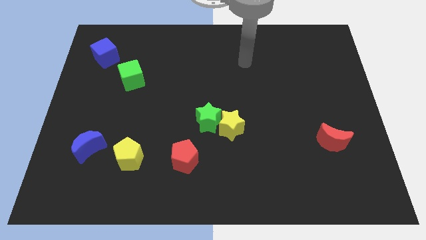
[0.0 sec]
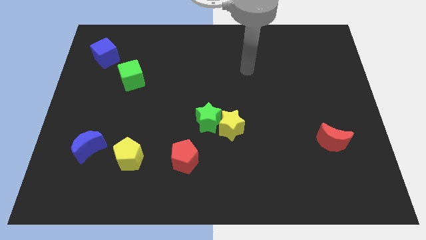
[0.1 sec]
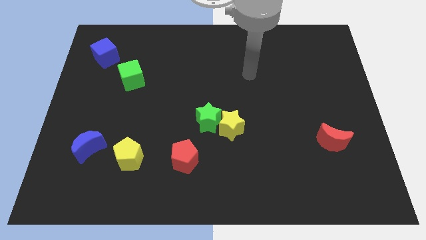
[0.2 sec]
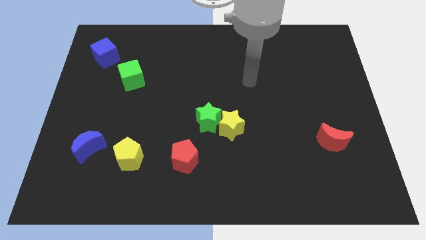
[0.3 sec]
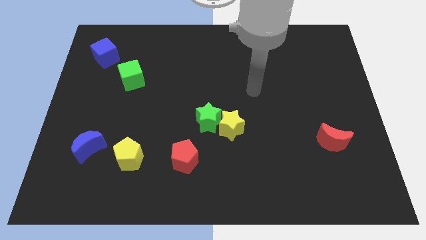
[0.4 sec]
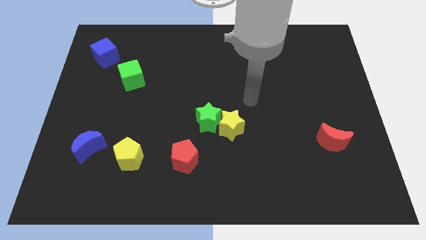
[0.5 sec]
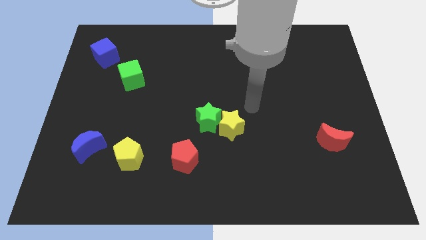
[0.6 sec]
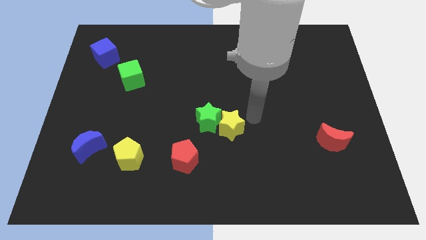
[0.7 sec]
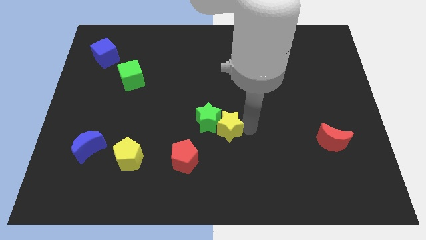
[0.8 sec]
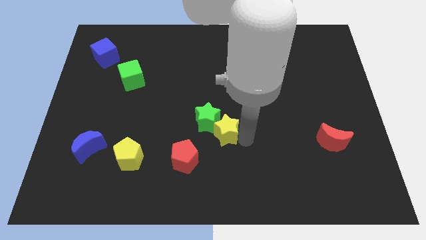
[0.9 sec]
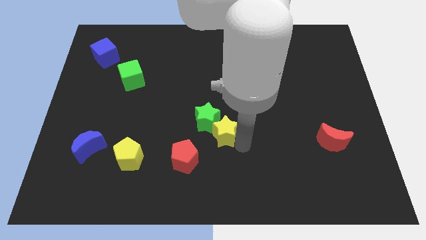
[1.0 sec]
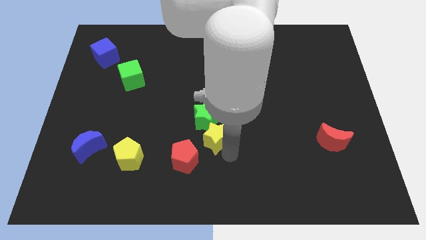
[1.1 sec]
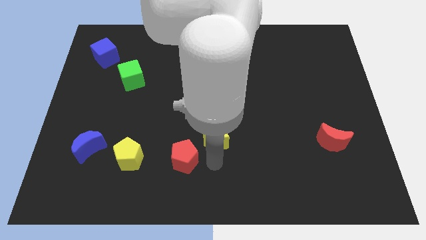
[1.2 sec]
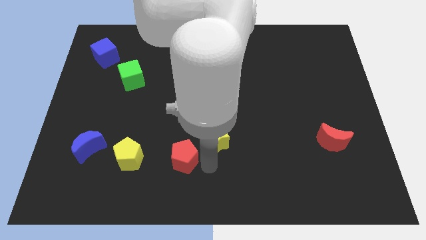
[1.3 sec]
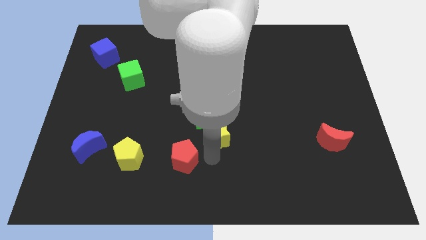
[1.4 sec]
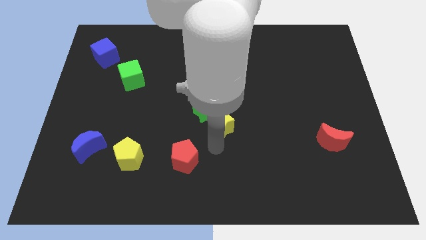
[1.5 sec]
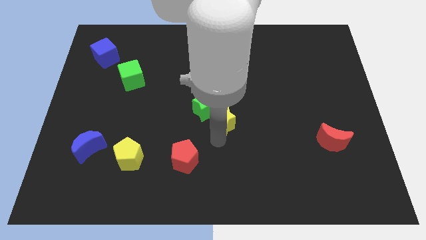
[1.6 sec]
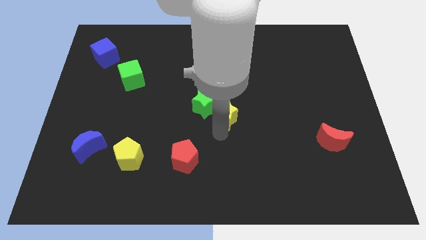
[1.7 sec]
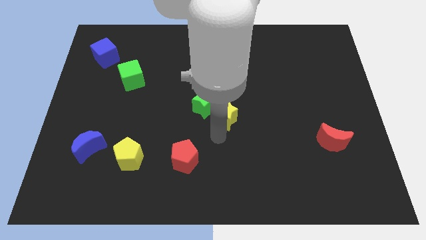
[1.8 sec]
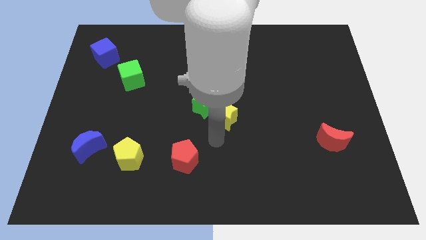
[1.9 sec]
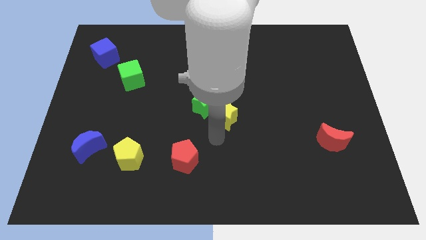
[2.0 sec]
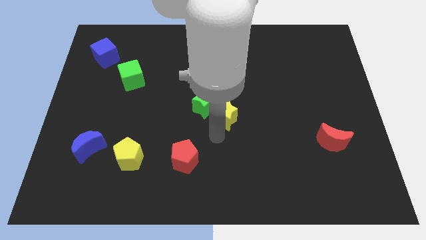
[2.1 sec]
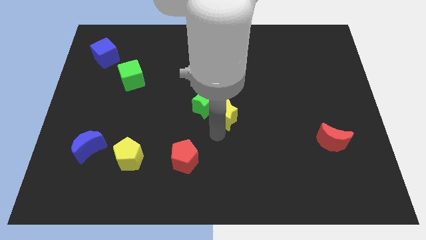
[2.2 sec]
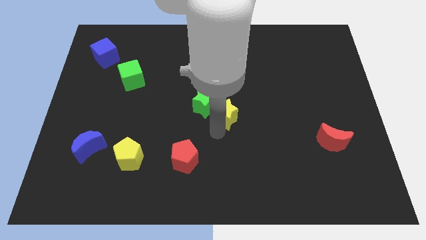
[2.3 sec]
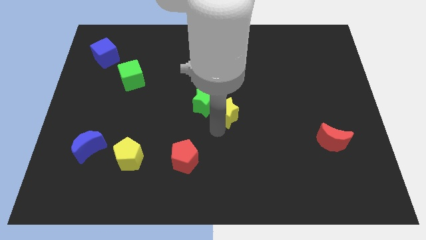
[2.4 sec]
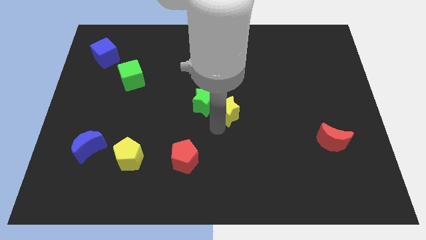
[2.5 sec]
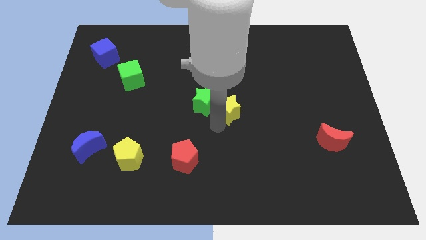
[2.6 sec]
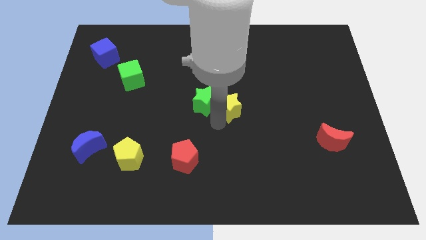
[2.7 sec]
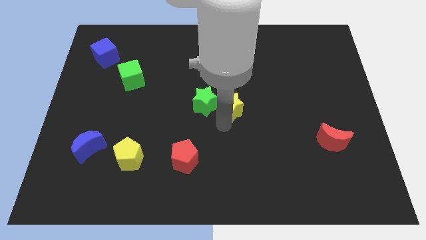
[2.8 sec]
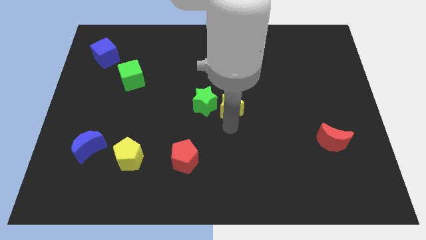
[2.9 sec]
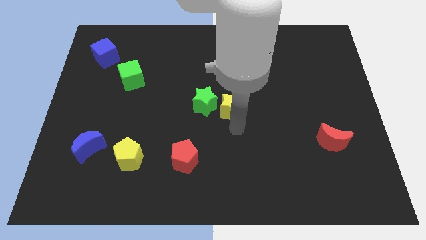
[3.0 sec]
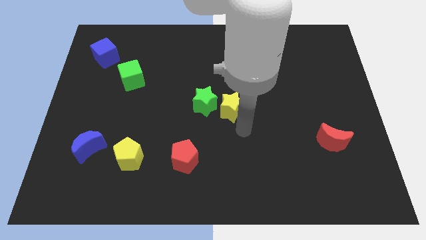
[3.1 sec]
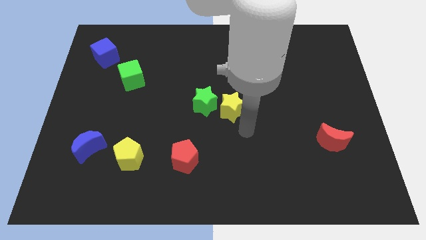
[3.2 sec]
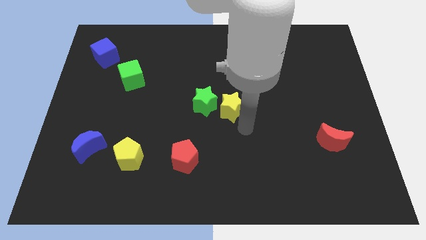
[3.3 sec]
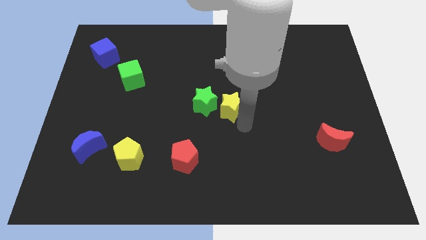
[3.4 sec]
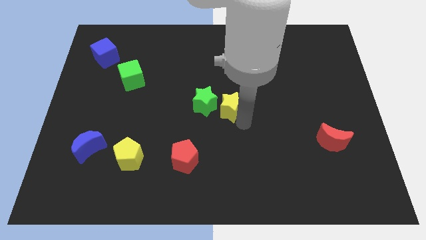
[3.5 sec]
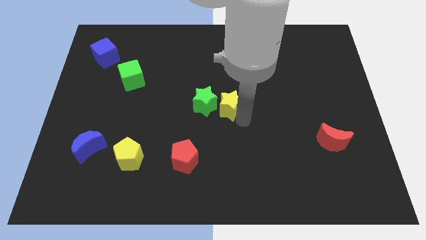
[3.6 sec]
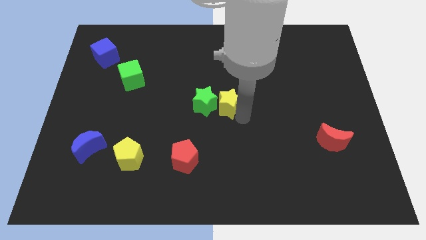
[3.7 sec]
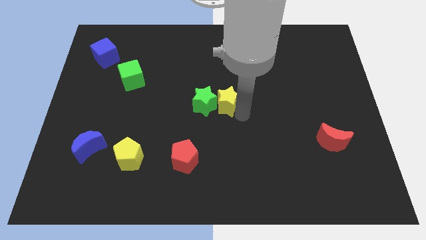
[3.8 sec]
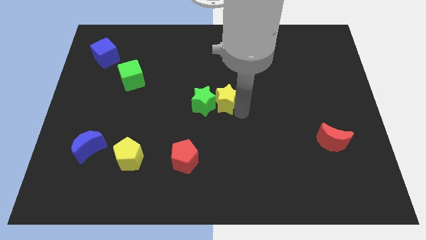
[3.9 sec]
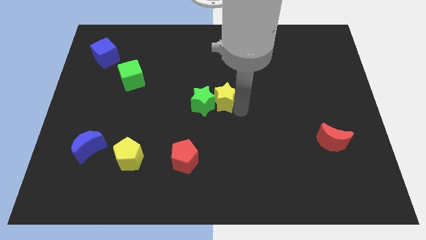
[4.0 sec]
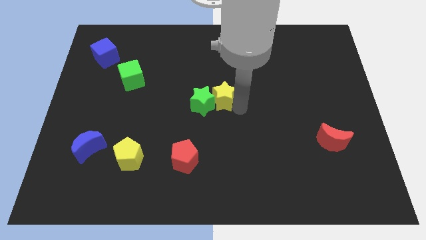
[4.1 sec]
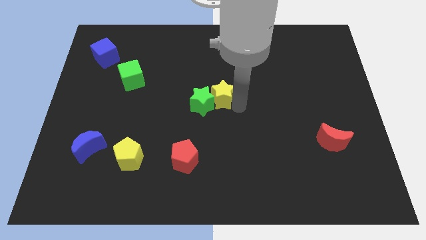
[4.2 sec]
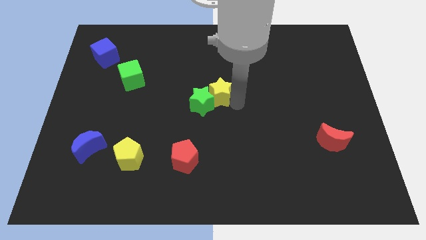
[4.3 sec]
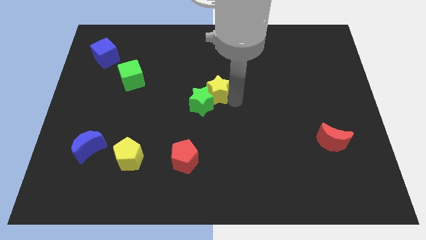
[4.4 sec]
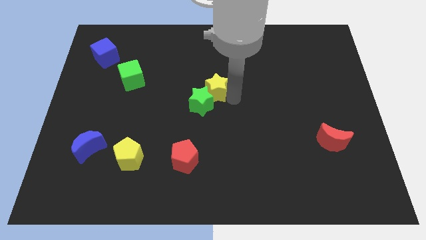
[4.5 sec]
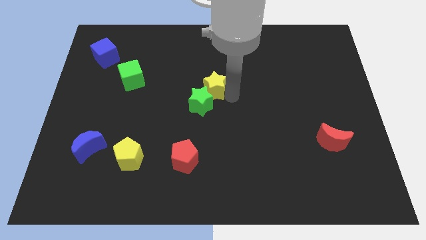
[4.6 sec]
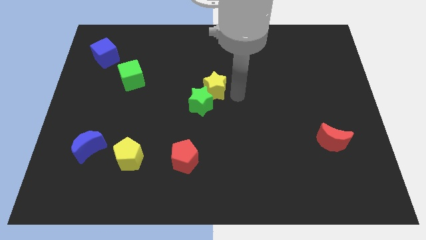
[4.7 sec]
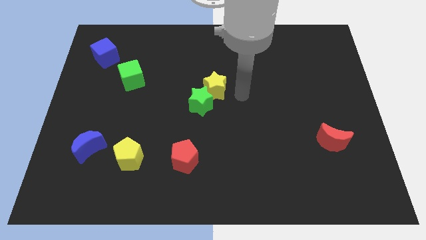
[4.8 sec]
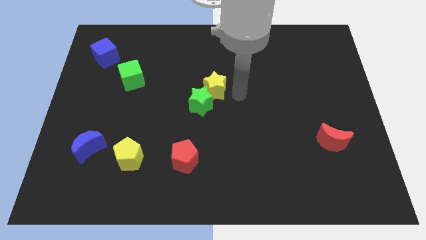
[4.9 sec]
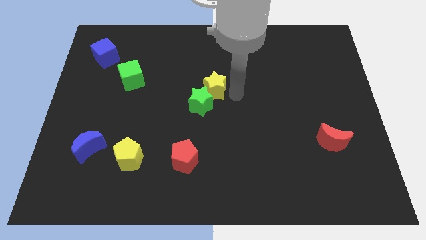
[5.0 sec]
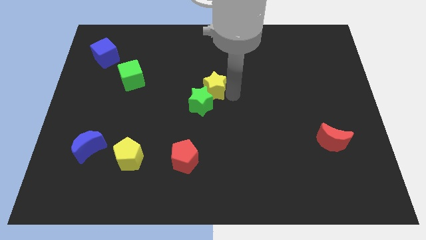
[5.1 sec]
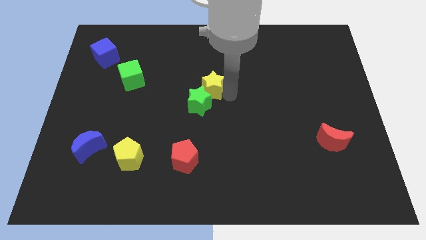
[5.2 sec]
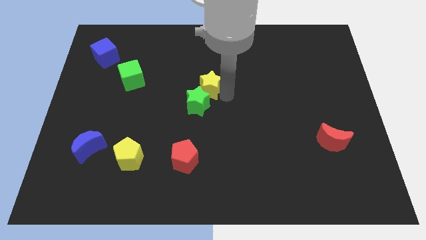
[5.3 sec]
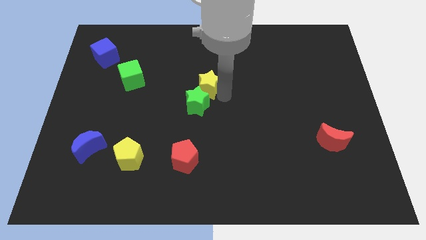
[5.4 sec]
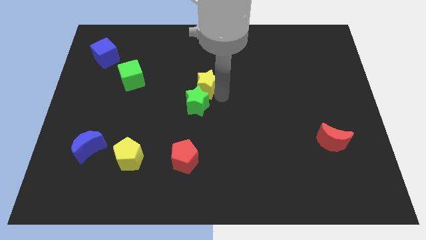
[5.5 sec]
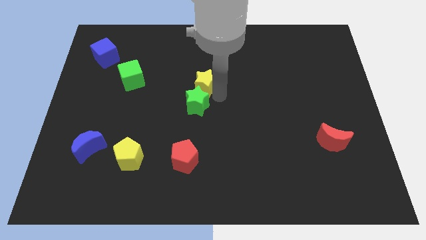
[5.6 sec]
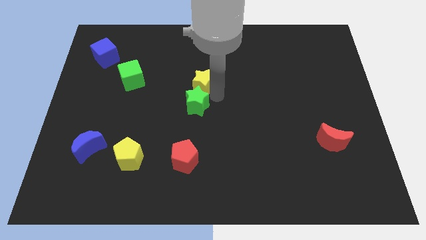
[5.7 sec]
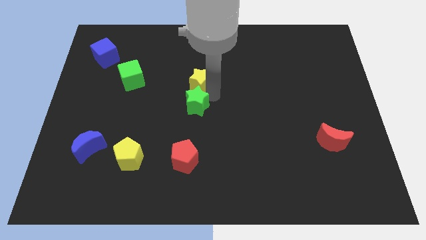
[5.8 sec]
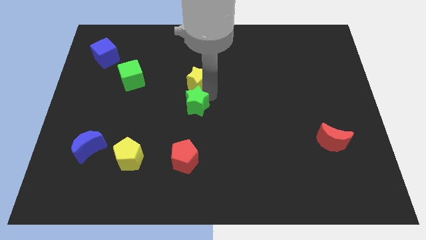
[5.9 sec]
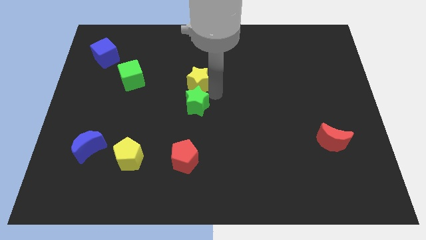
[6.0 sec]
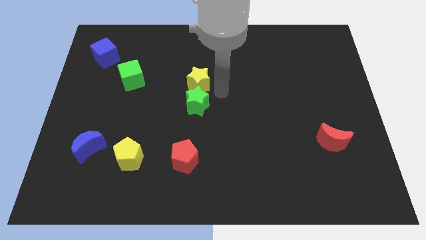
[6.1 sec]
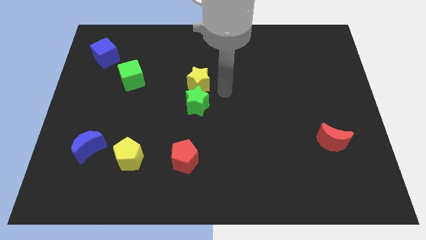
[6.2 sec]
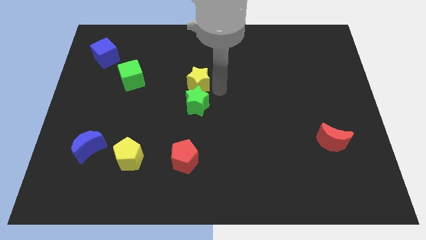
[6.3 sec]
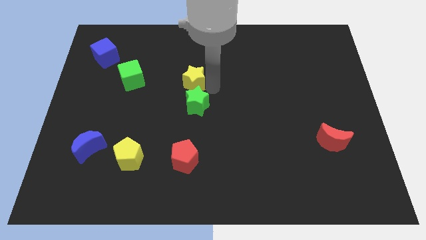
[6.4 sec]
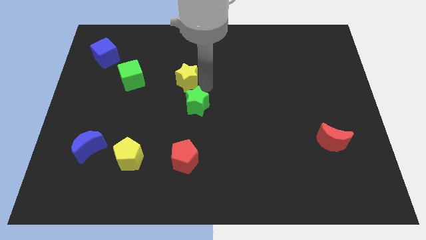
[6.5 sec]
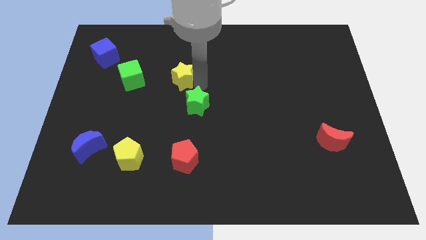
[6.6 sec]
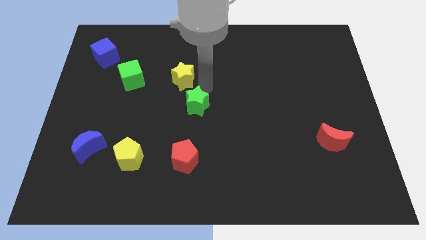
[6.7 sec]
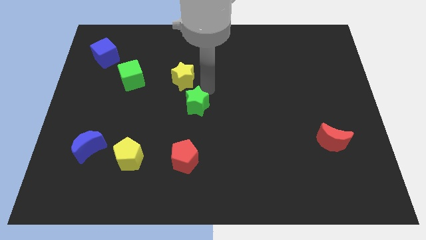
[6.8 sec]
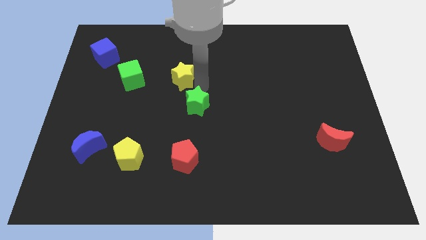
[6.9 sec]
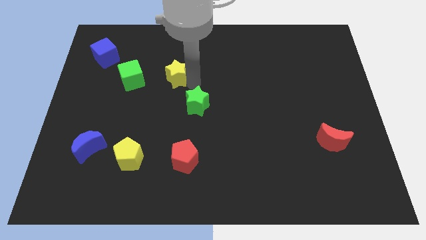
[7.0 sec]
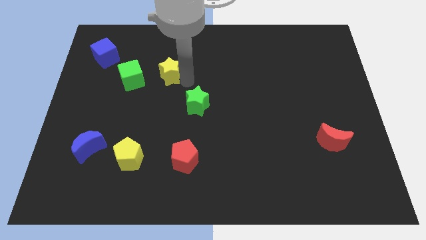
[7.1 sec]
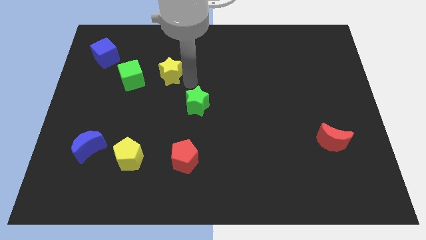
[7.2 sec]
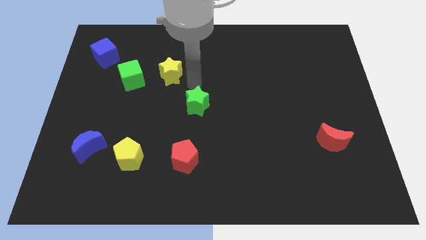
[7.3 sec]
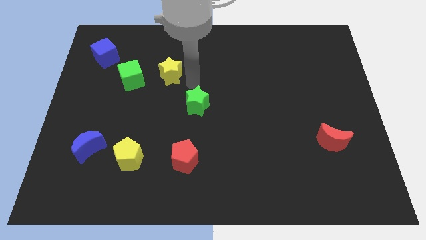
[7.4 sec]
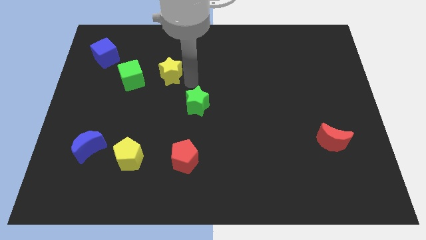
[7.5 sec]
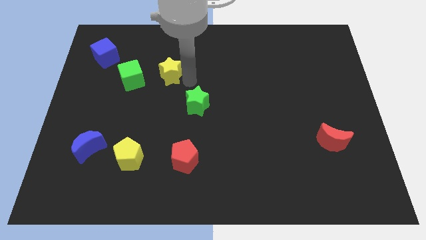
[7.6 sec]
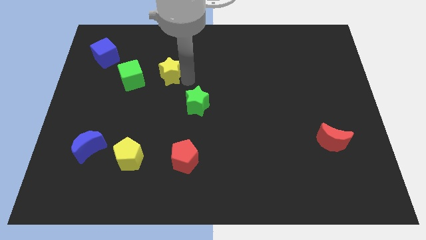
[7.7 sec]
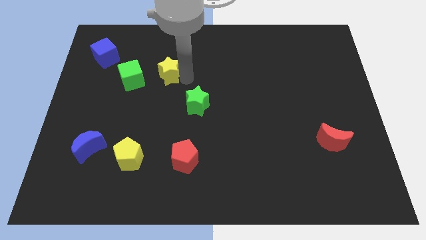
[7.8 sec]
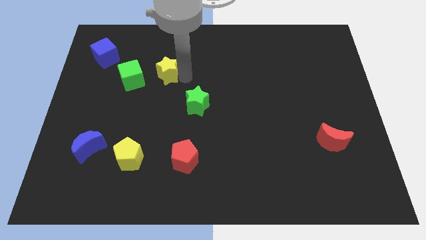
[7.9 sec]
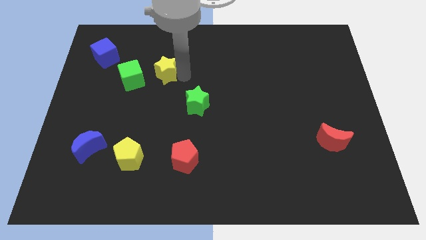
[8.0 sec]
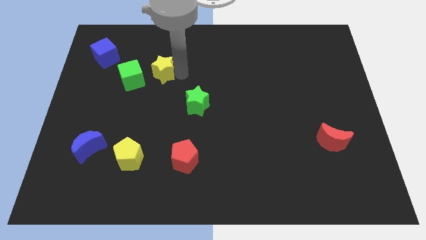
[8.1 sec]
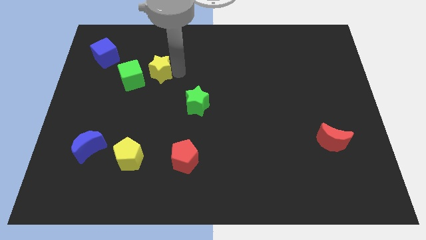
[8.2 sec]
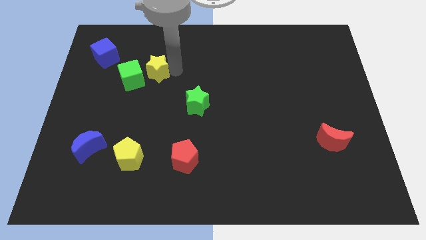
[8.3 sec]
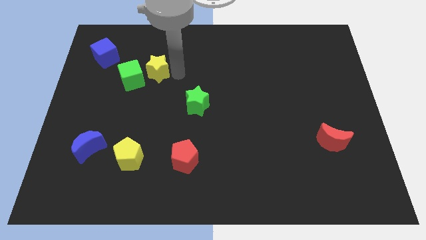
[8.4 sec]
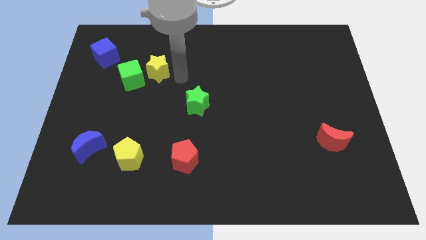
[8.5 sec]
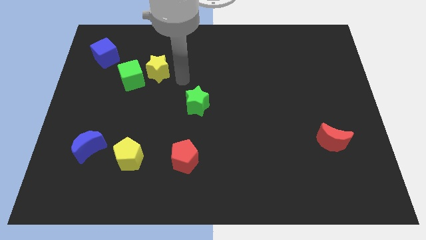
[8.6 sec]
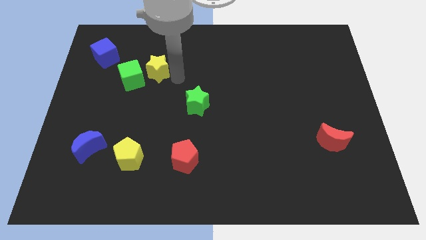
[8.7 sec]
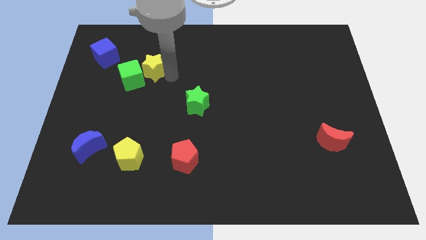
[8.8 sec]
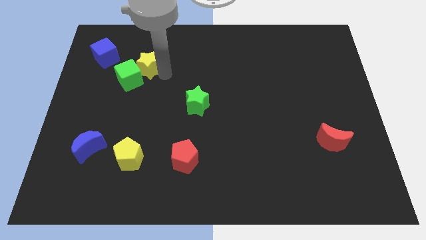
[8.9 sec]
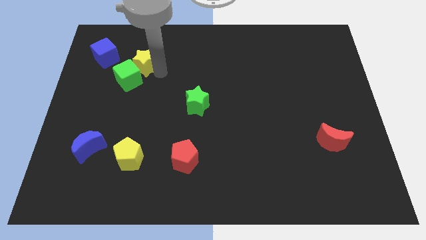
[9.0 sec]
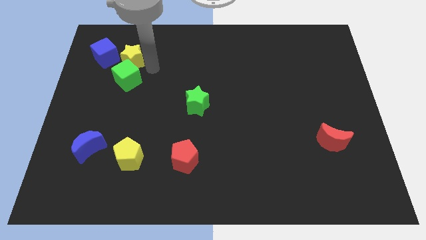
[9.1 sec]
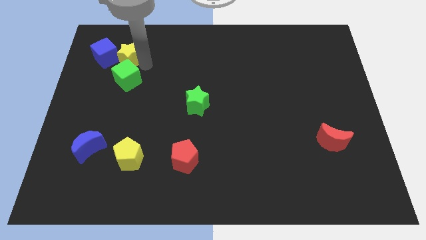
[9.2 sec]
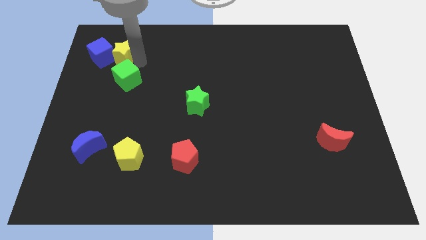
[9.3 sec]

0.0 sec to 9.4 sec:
slide the yellow star close to the blue cube
